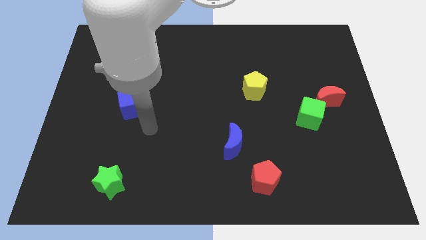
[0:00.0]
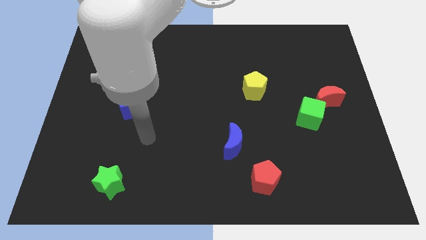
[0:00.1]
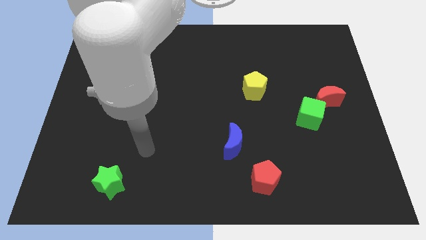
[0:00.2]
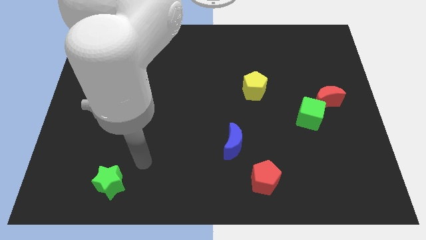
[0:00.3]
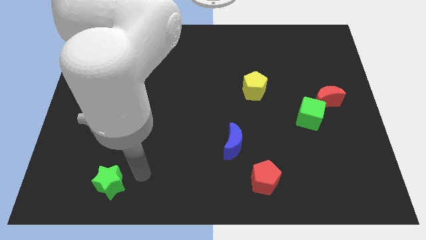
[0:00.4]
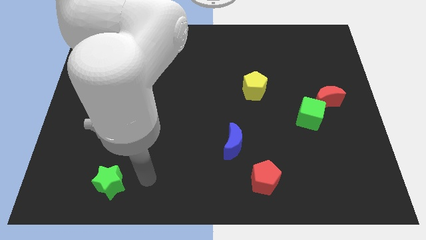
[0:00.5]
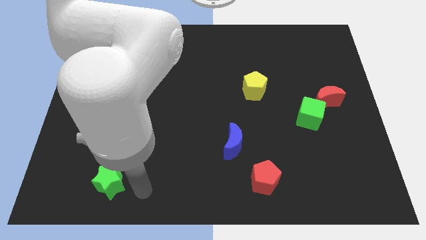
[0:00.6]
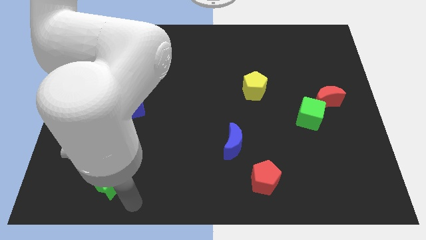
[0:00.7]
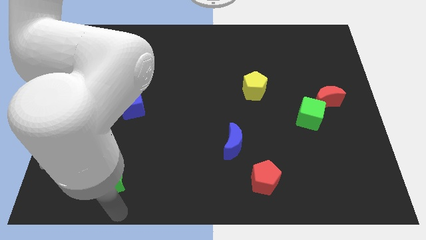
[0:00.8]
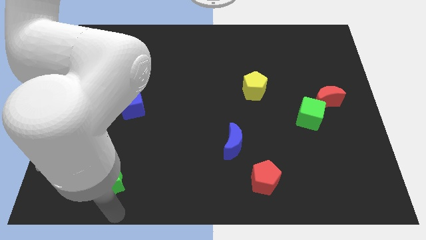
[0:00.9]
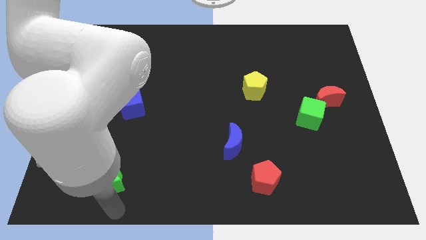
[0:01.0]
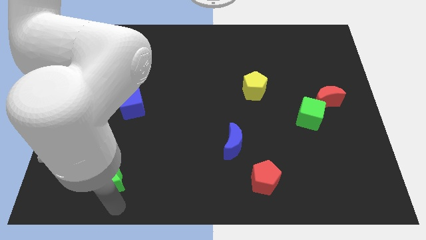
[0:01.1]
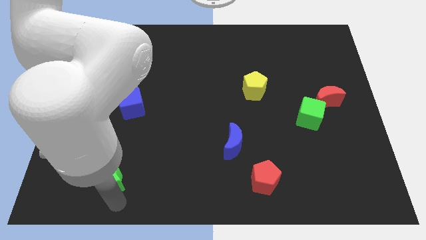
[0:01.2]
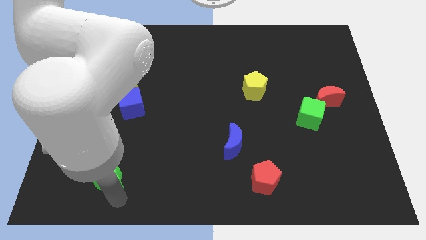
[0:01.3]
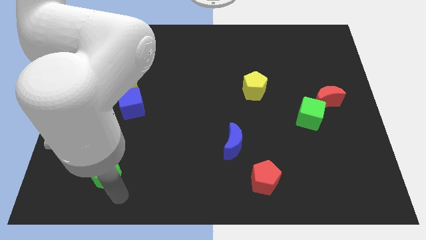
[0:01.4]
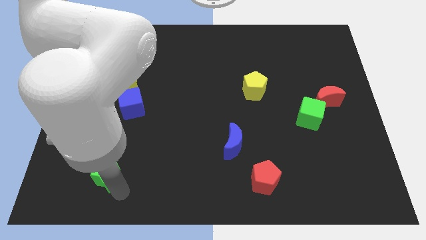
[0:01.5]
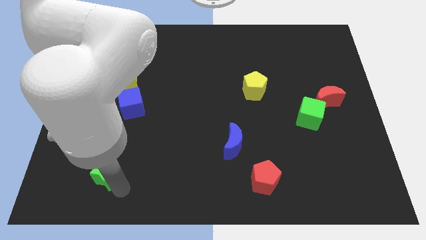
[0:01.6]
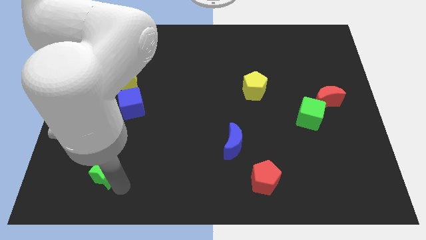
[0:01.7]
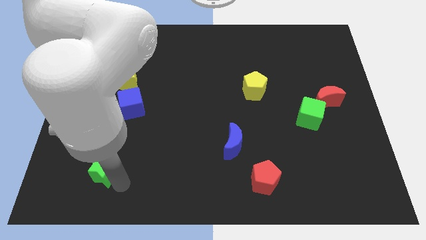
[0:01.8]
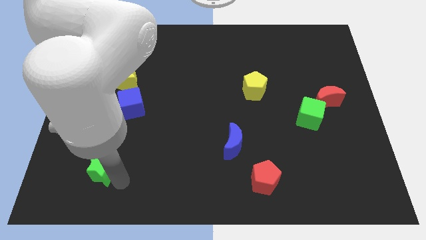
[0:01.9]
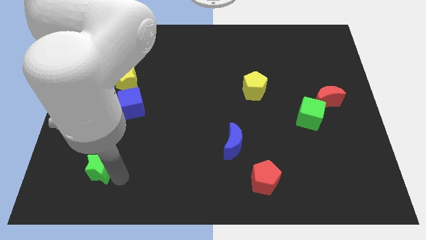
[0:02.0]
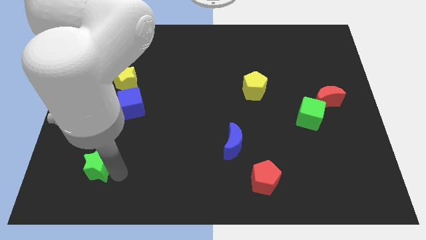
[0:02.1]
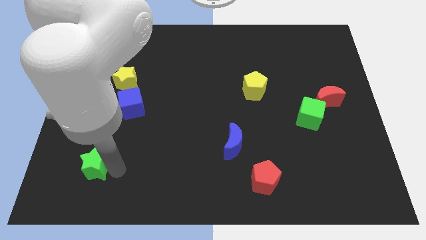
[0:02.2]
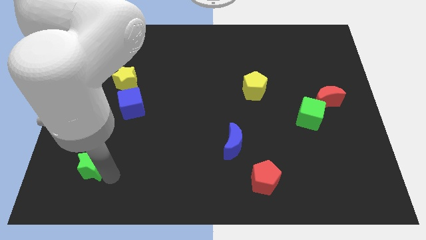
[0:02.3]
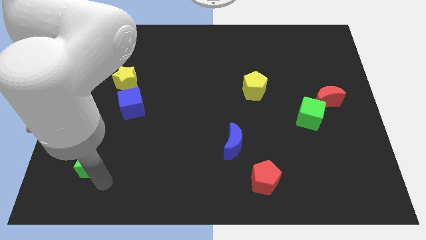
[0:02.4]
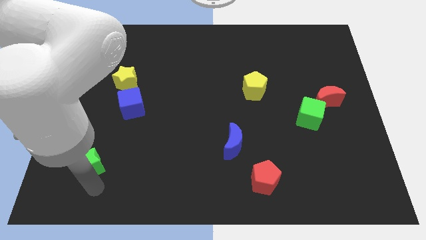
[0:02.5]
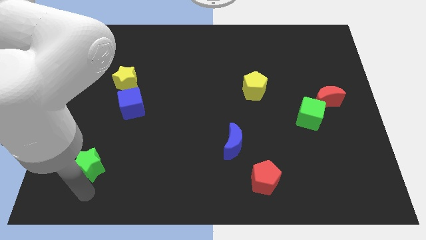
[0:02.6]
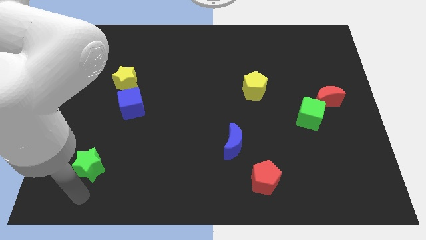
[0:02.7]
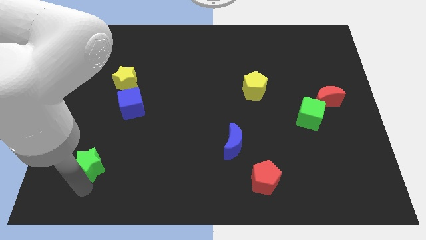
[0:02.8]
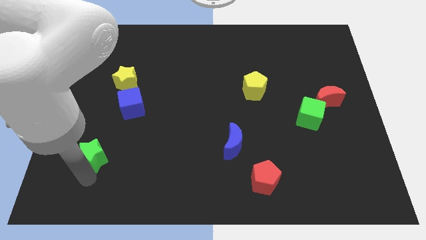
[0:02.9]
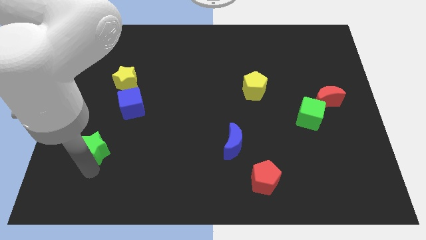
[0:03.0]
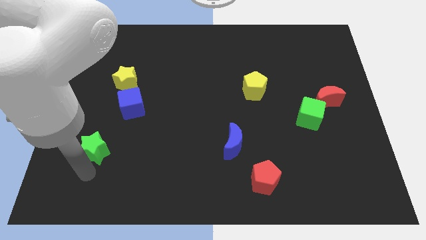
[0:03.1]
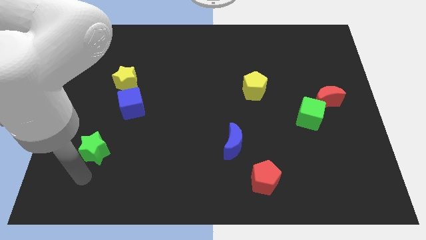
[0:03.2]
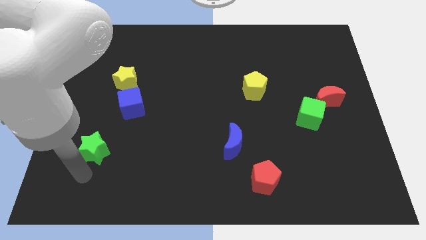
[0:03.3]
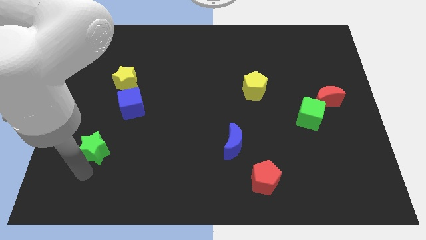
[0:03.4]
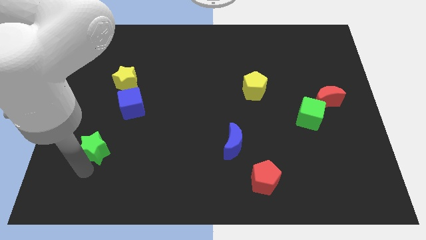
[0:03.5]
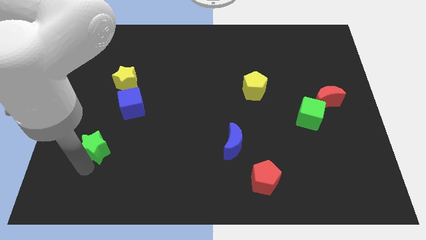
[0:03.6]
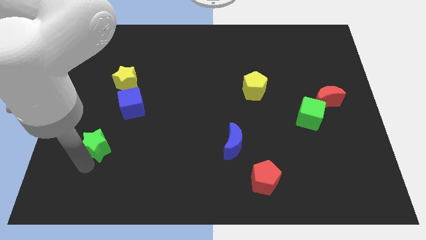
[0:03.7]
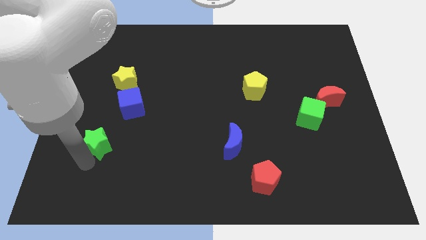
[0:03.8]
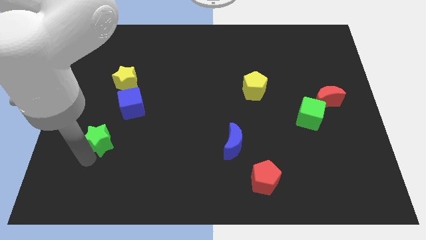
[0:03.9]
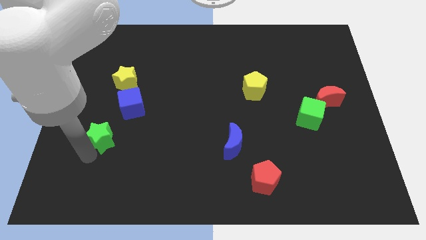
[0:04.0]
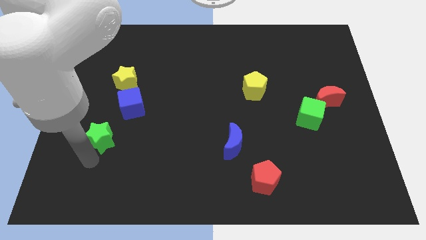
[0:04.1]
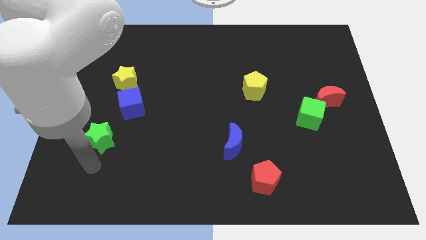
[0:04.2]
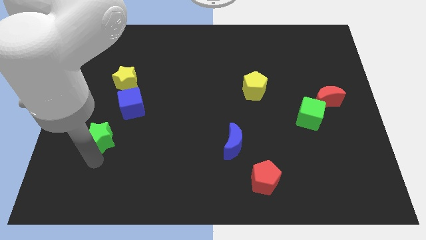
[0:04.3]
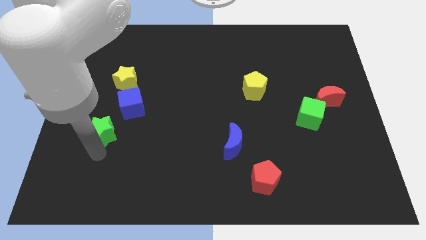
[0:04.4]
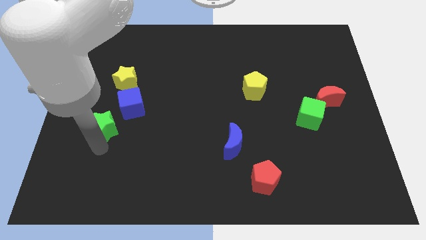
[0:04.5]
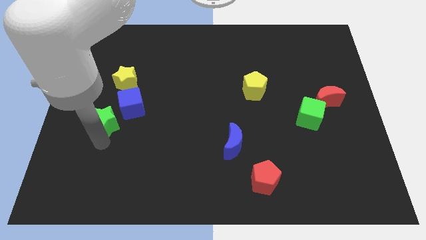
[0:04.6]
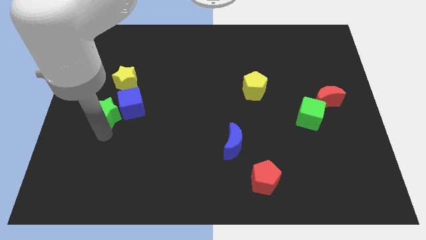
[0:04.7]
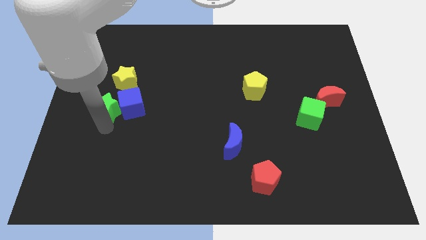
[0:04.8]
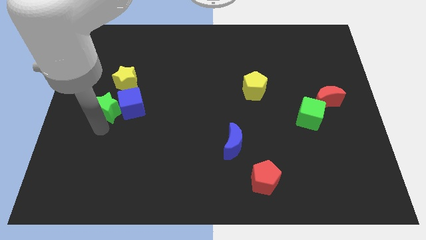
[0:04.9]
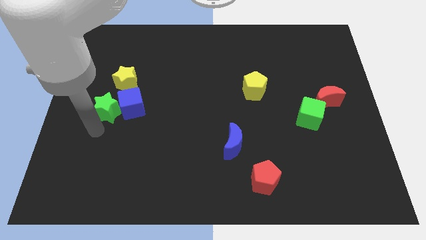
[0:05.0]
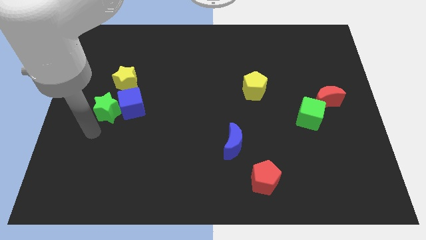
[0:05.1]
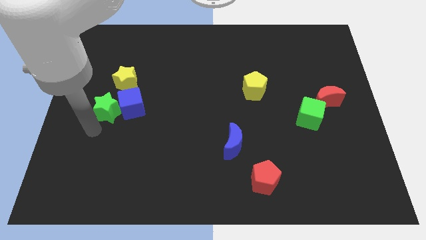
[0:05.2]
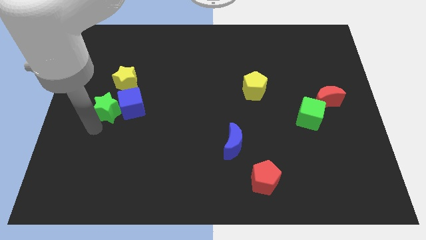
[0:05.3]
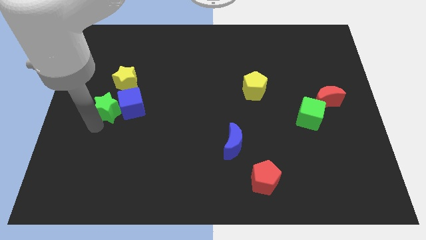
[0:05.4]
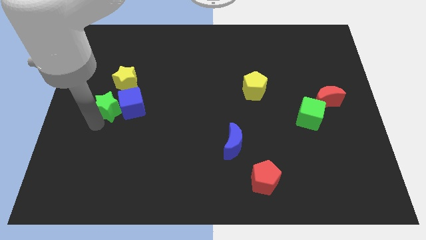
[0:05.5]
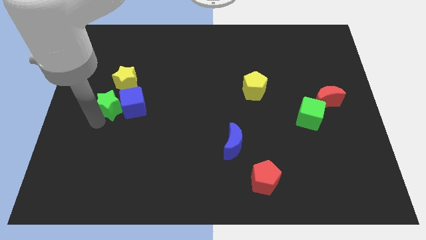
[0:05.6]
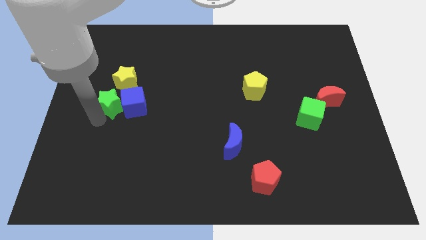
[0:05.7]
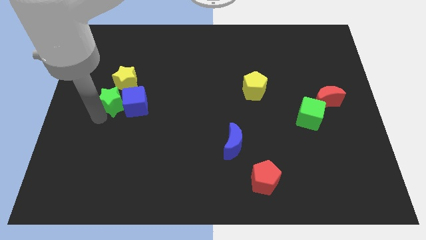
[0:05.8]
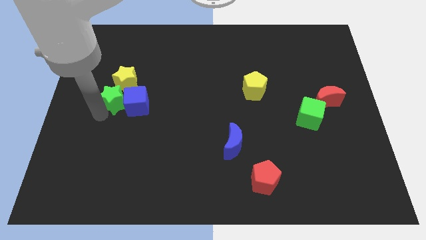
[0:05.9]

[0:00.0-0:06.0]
move the green star to the yellow star

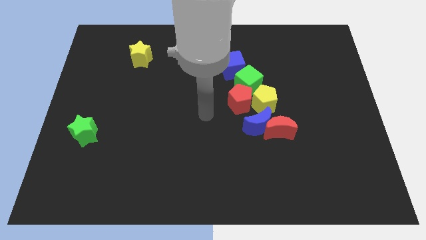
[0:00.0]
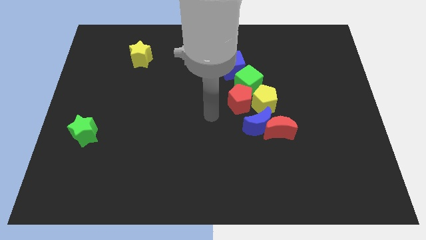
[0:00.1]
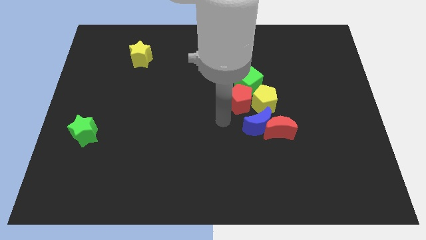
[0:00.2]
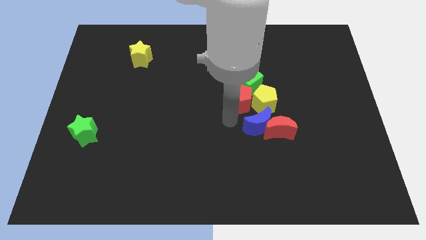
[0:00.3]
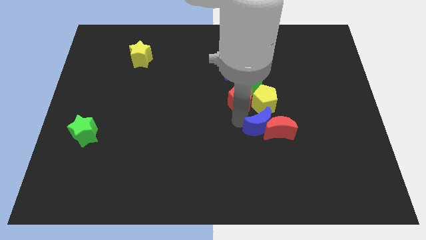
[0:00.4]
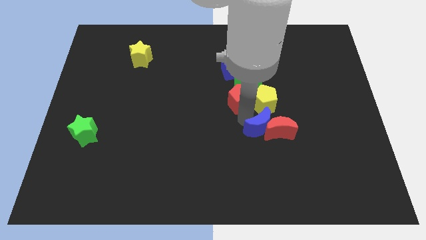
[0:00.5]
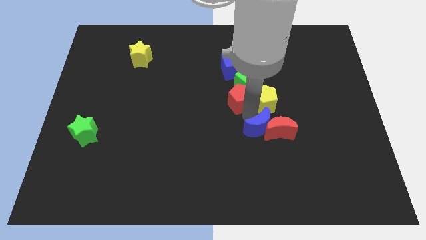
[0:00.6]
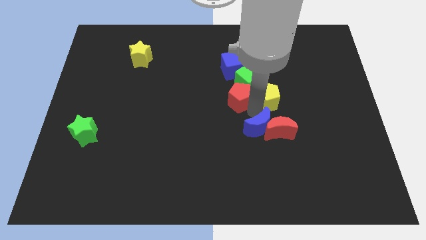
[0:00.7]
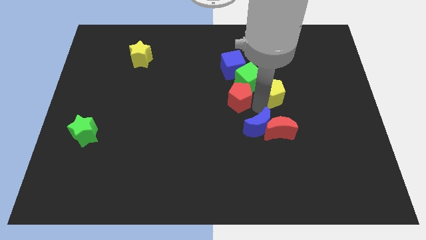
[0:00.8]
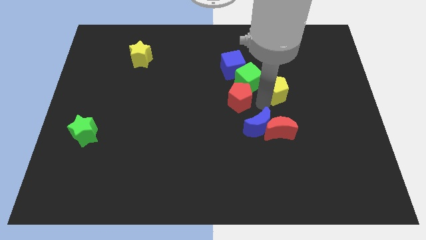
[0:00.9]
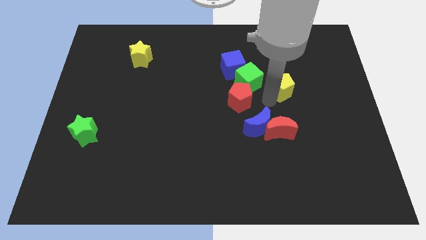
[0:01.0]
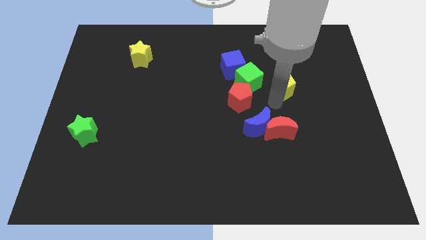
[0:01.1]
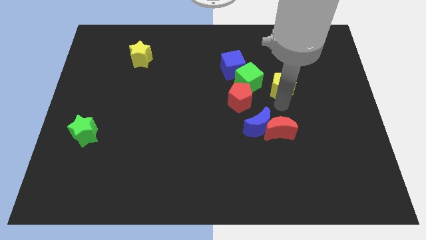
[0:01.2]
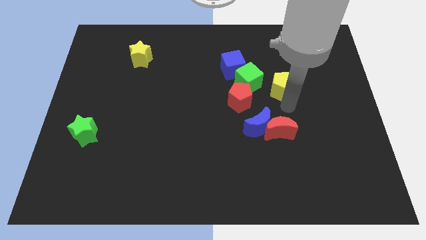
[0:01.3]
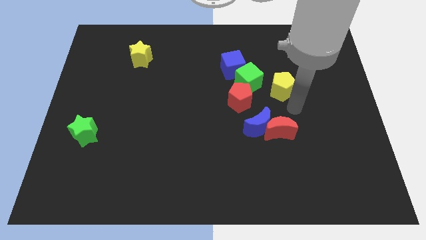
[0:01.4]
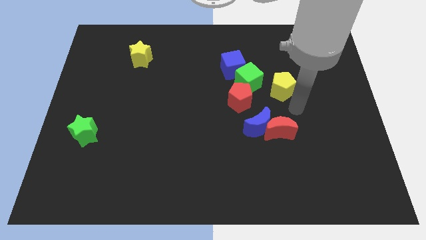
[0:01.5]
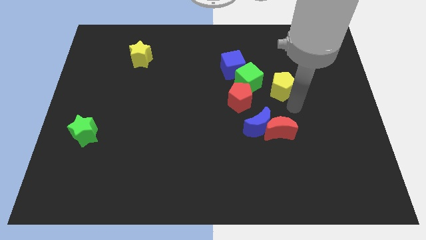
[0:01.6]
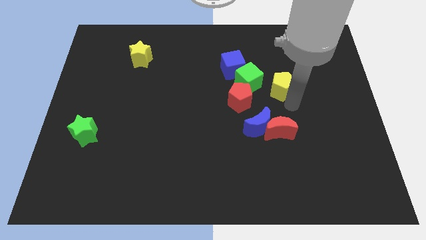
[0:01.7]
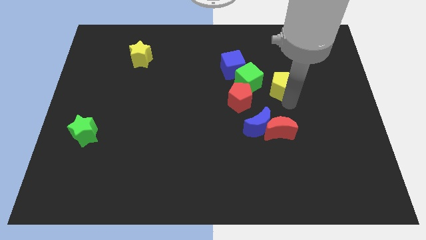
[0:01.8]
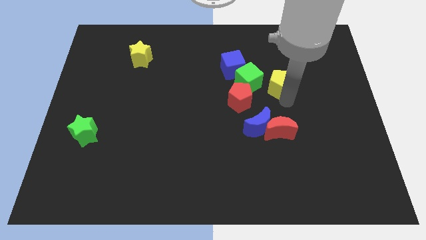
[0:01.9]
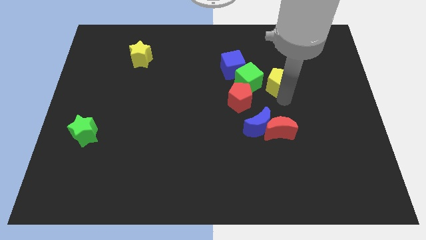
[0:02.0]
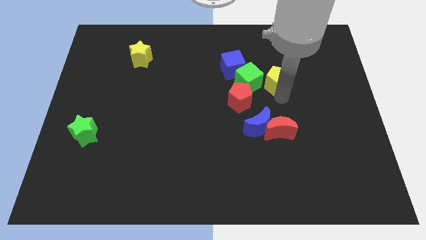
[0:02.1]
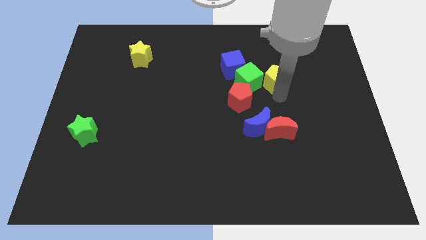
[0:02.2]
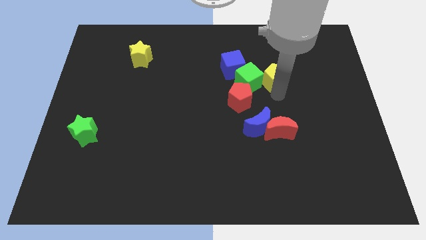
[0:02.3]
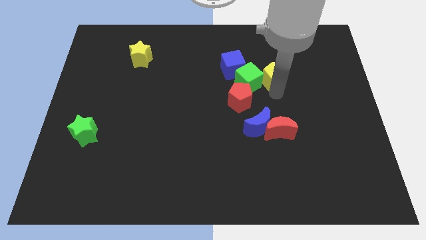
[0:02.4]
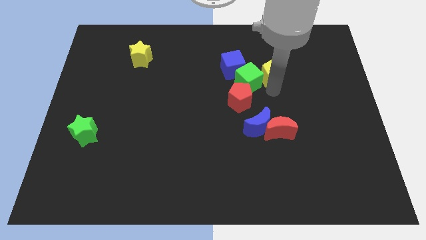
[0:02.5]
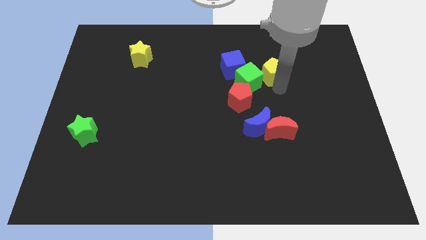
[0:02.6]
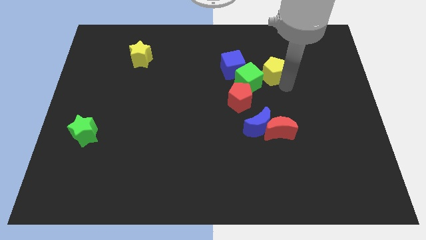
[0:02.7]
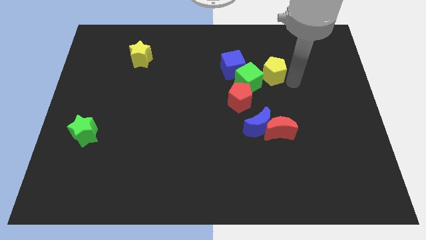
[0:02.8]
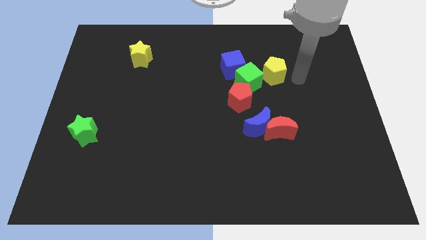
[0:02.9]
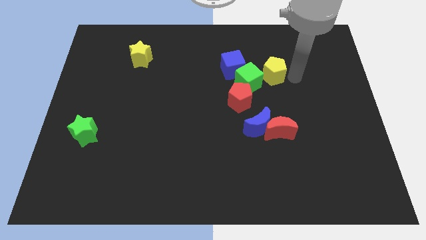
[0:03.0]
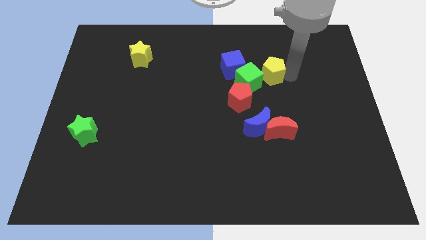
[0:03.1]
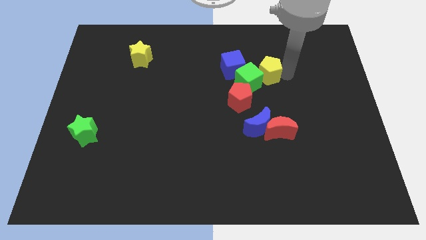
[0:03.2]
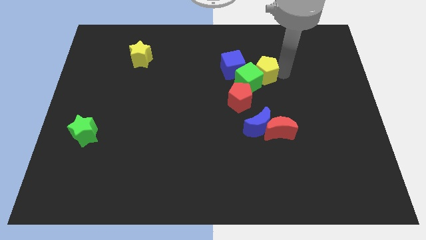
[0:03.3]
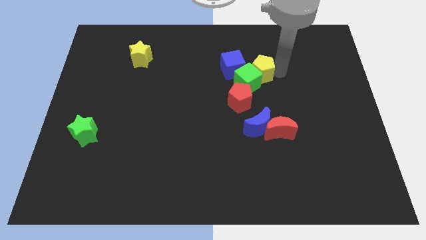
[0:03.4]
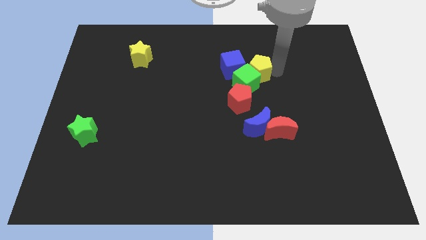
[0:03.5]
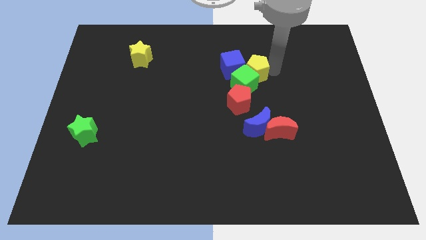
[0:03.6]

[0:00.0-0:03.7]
move the yellow pentagon close to the blue cube
